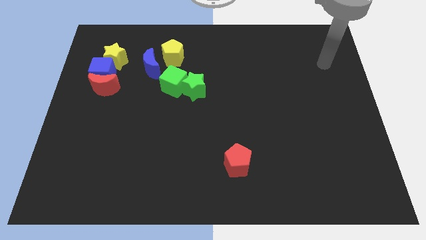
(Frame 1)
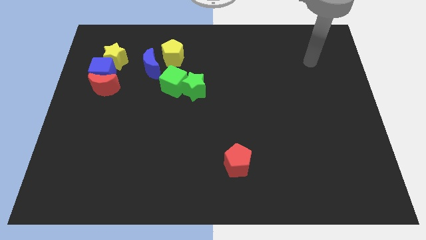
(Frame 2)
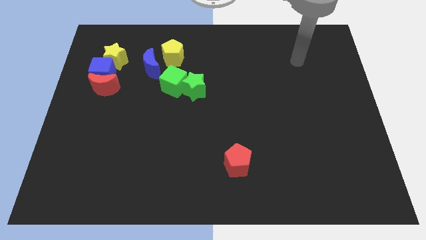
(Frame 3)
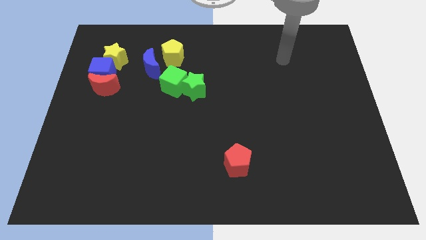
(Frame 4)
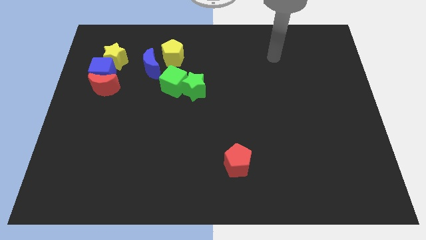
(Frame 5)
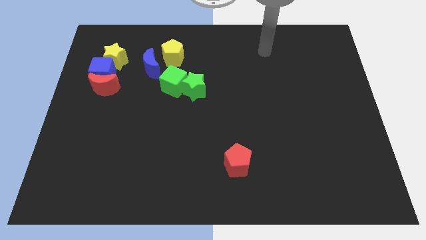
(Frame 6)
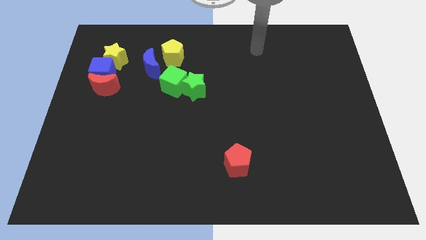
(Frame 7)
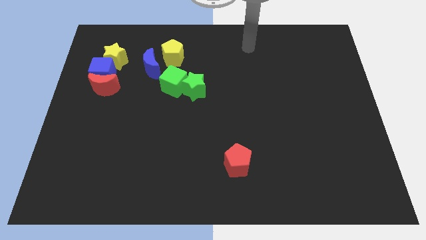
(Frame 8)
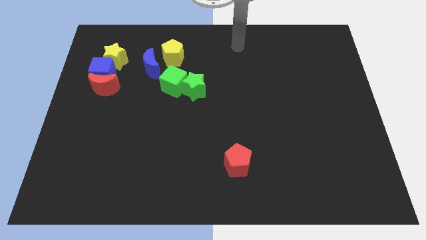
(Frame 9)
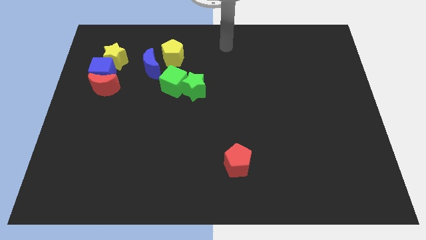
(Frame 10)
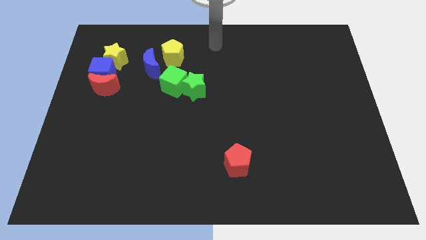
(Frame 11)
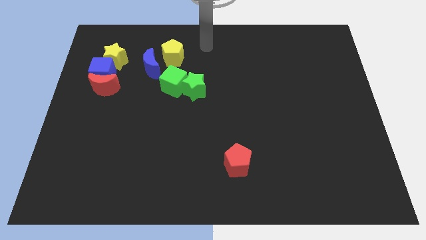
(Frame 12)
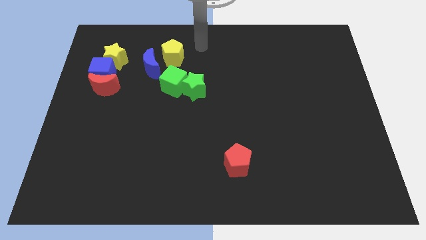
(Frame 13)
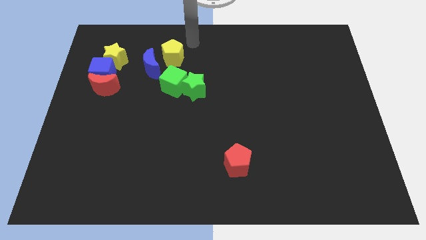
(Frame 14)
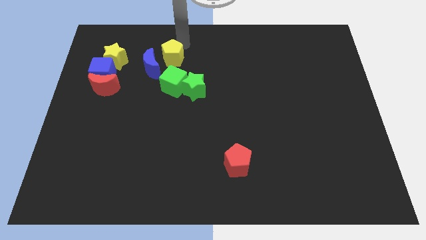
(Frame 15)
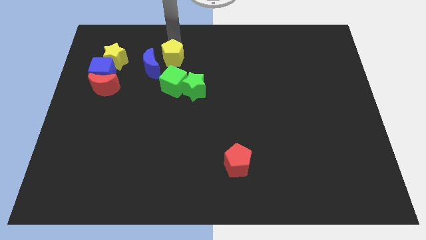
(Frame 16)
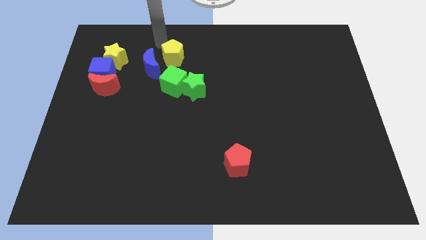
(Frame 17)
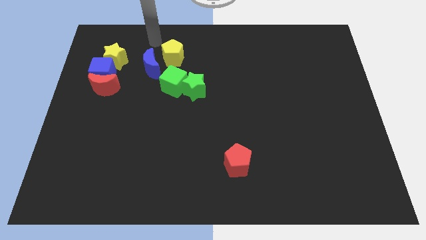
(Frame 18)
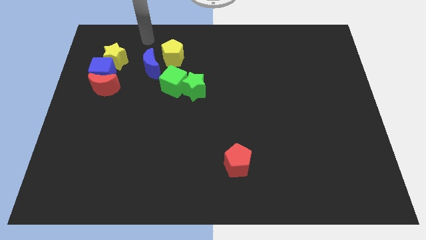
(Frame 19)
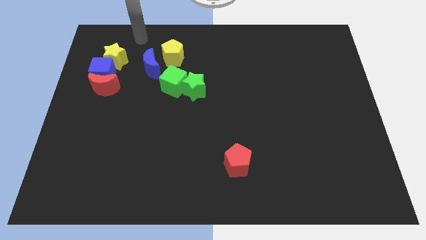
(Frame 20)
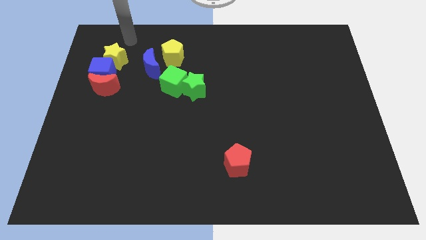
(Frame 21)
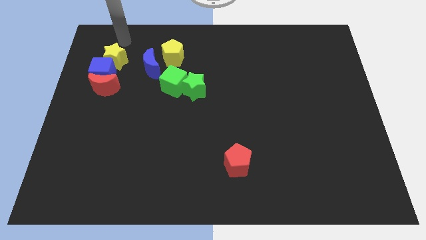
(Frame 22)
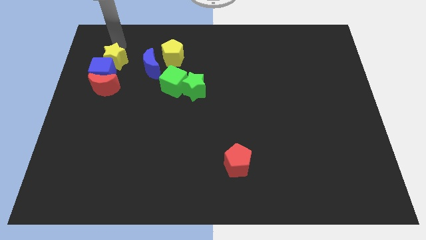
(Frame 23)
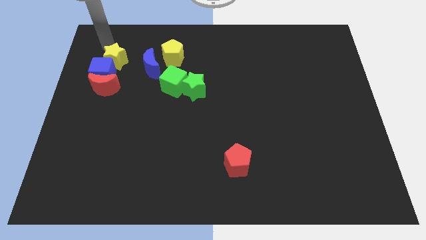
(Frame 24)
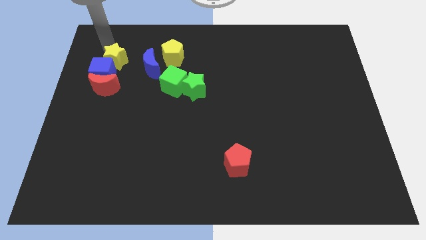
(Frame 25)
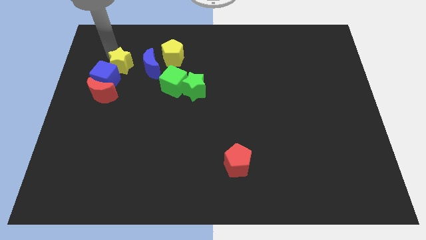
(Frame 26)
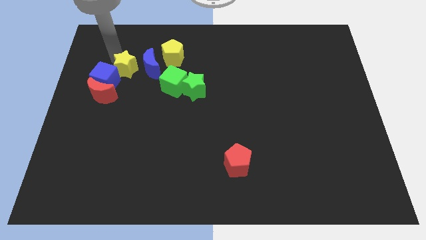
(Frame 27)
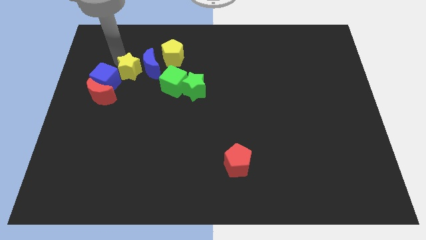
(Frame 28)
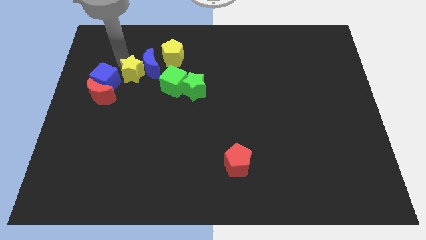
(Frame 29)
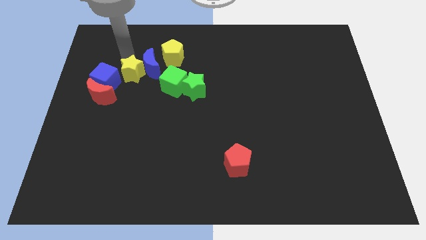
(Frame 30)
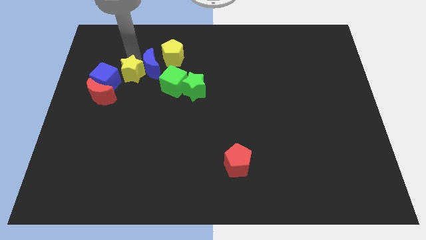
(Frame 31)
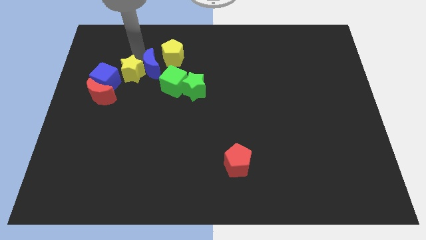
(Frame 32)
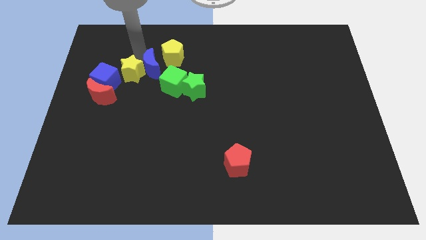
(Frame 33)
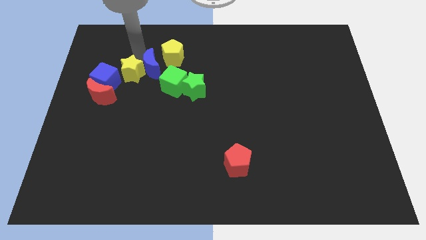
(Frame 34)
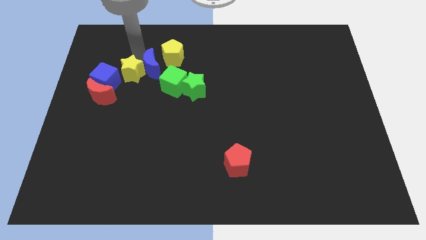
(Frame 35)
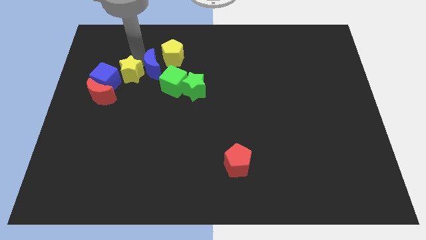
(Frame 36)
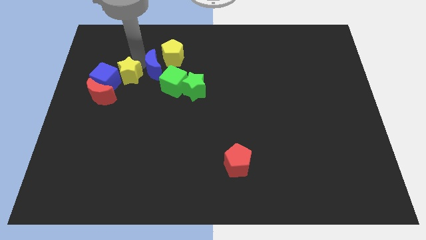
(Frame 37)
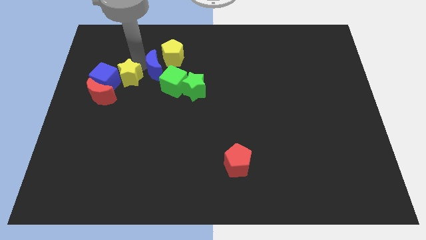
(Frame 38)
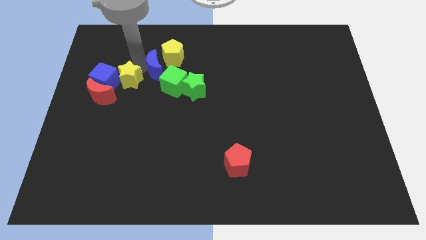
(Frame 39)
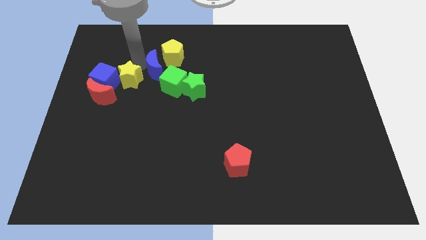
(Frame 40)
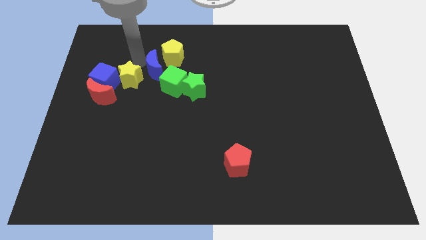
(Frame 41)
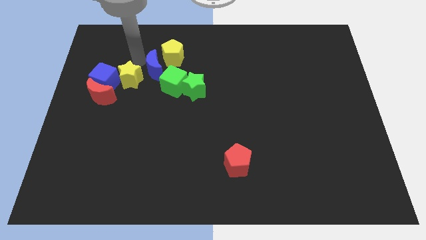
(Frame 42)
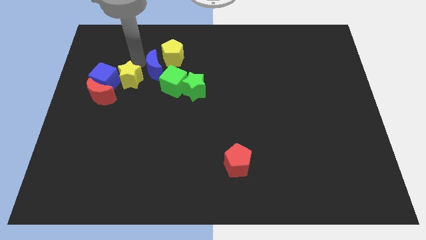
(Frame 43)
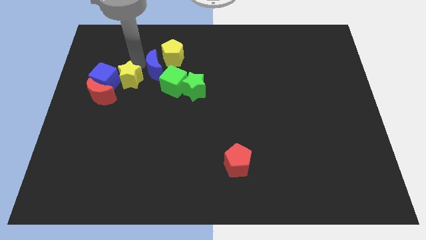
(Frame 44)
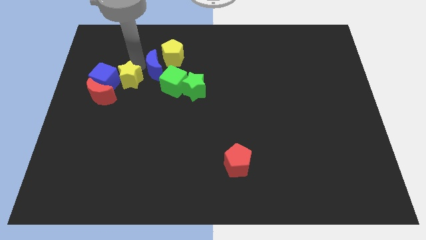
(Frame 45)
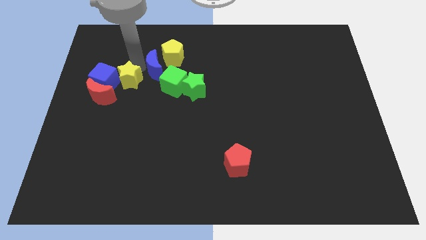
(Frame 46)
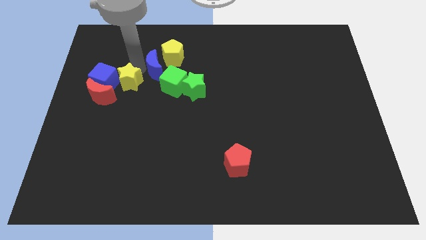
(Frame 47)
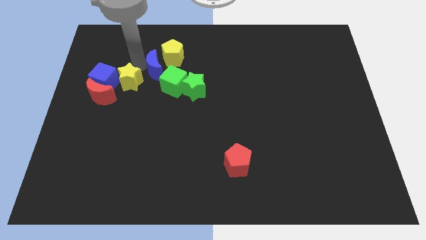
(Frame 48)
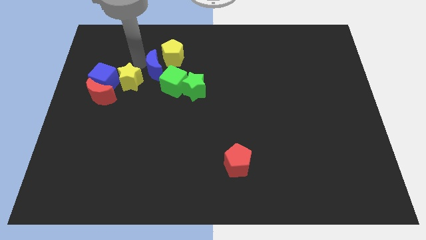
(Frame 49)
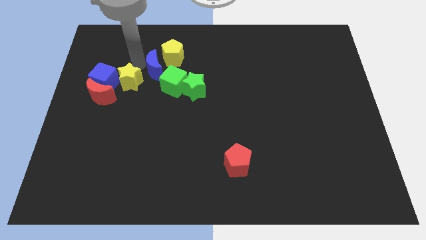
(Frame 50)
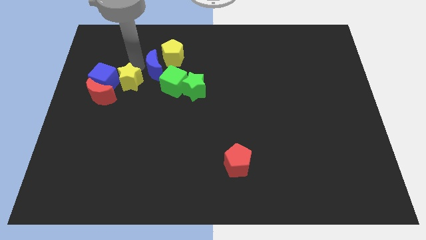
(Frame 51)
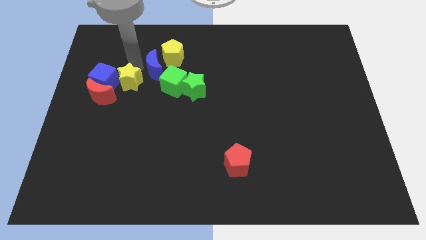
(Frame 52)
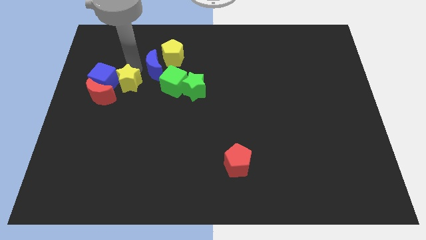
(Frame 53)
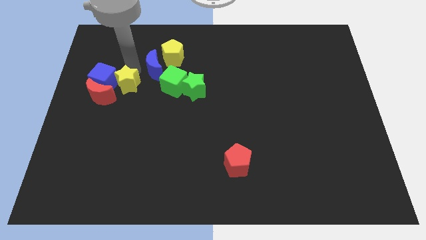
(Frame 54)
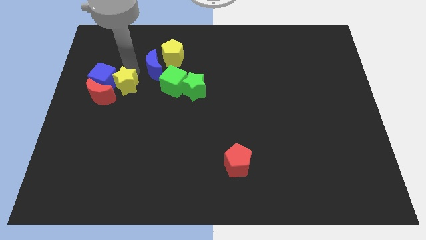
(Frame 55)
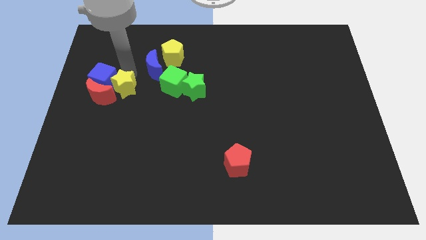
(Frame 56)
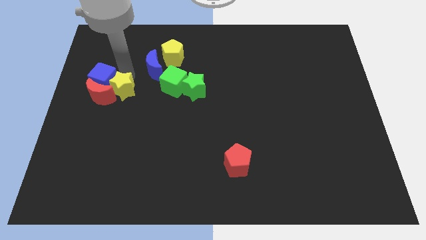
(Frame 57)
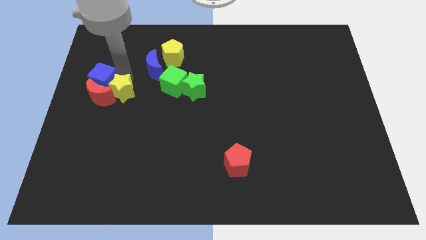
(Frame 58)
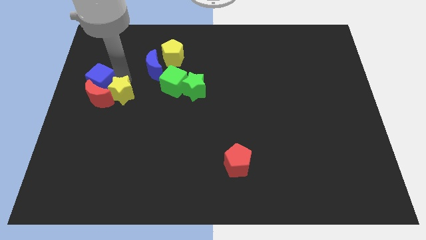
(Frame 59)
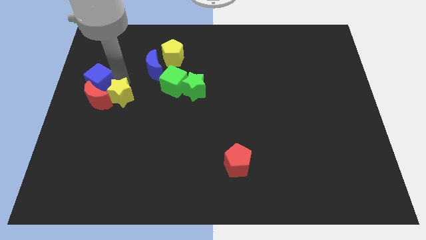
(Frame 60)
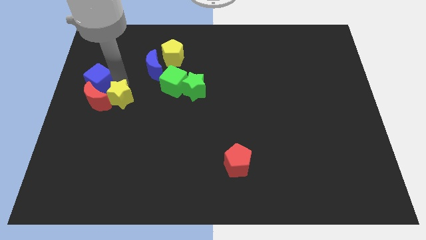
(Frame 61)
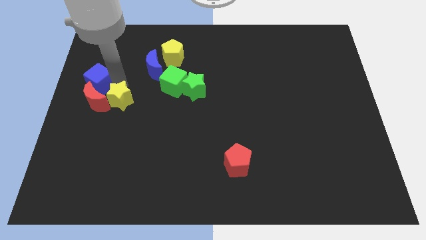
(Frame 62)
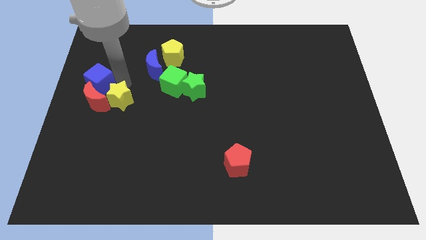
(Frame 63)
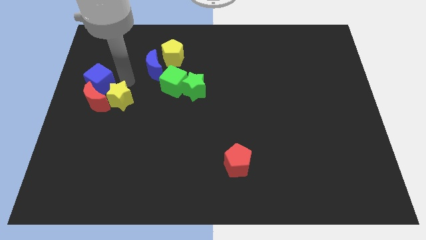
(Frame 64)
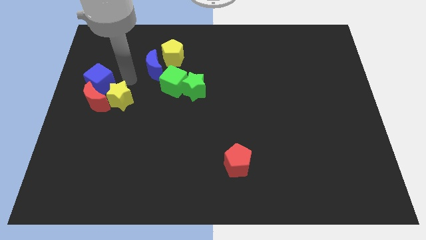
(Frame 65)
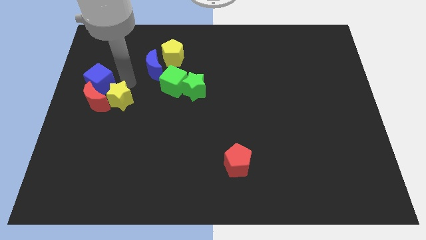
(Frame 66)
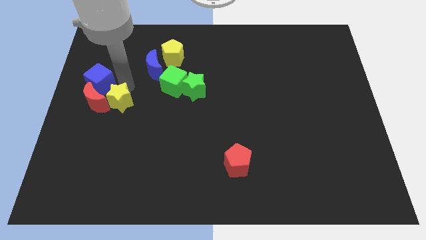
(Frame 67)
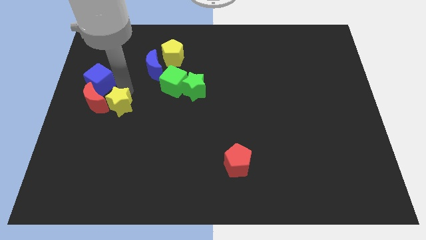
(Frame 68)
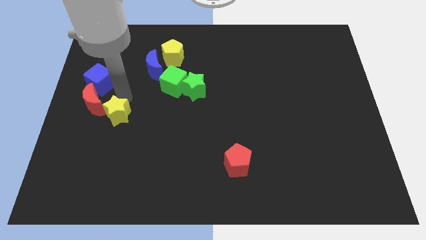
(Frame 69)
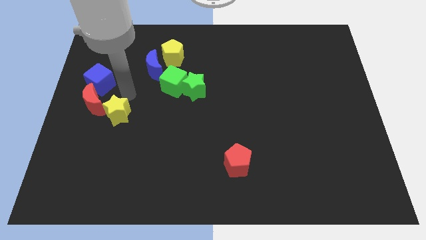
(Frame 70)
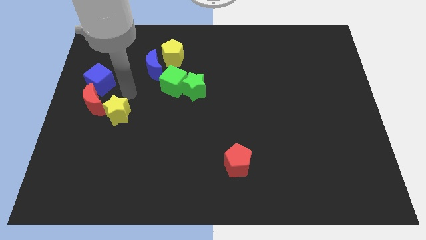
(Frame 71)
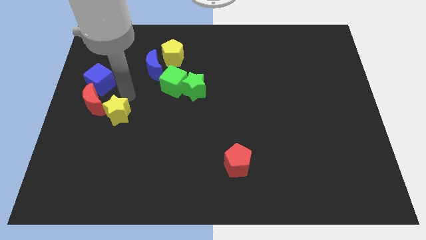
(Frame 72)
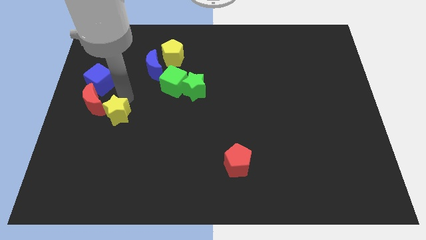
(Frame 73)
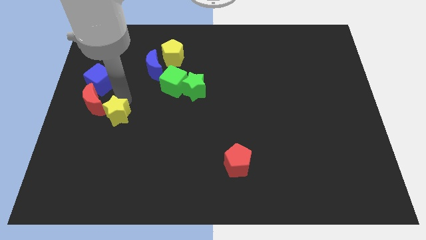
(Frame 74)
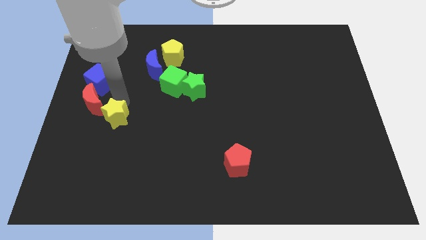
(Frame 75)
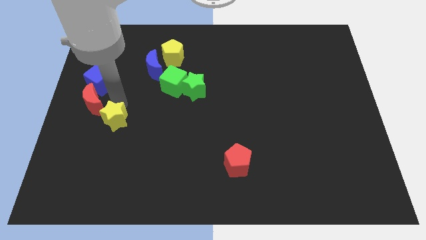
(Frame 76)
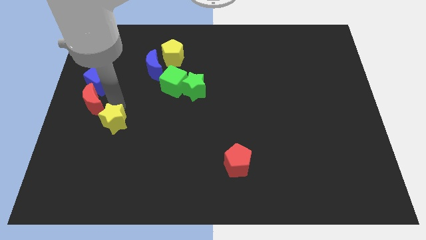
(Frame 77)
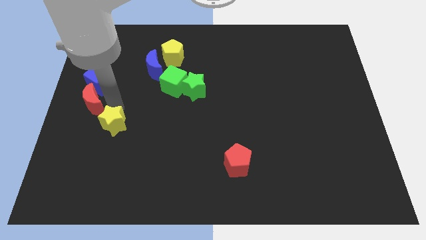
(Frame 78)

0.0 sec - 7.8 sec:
push the yellow star downwards

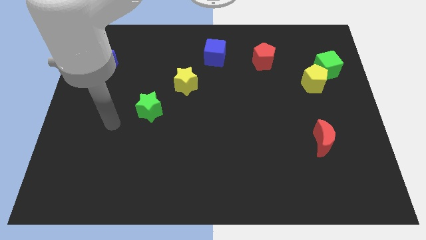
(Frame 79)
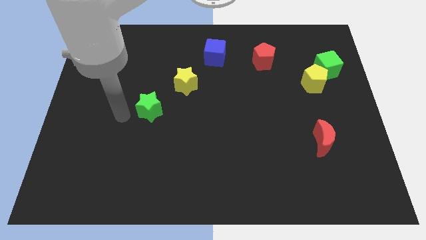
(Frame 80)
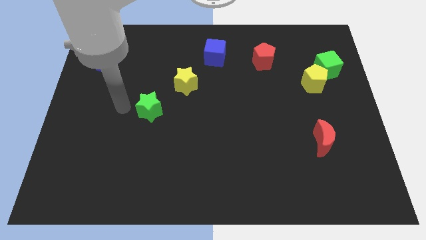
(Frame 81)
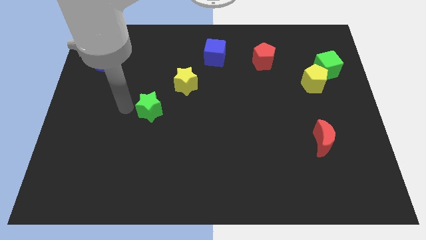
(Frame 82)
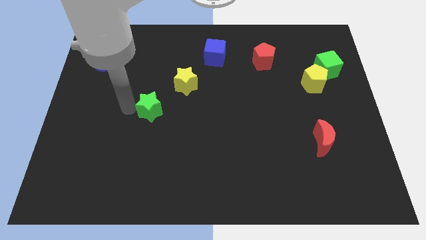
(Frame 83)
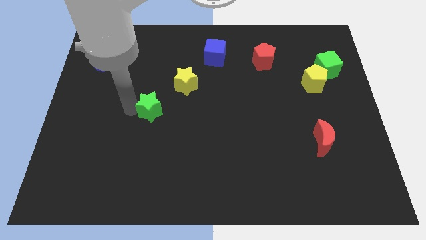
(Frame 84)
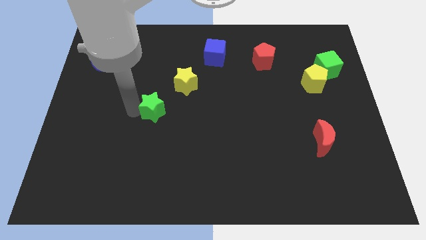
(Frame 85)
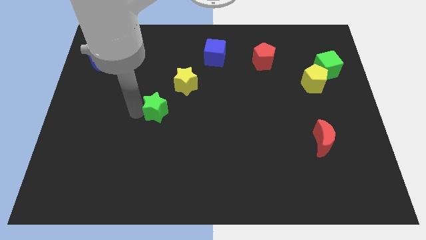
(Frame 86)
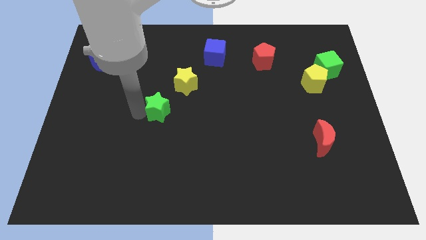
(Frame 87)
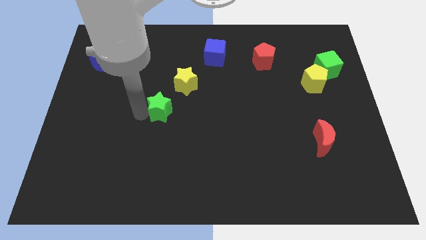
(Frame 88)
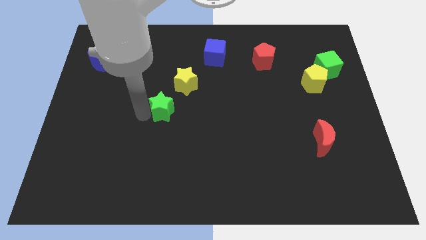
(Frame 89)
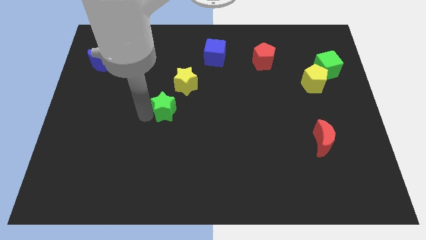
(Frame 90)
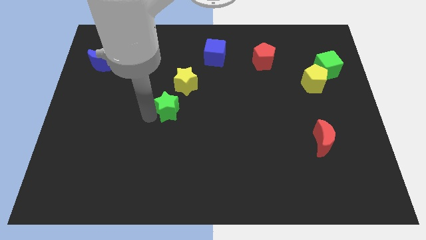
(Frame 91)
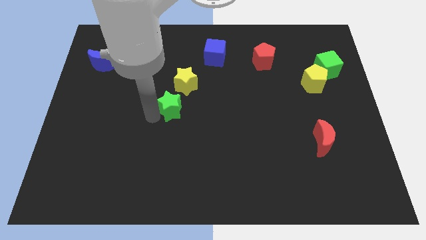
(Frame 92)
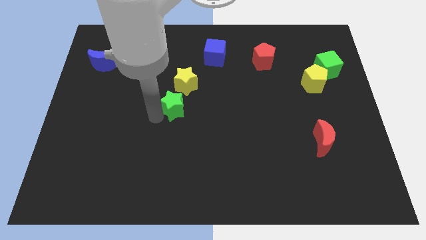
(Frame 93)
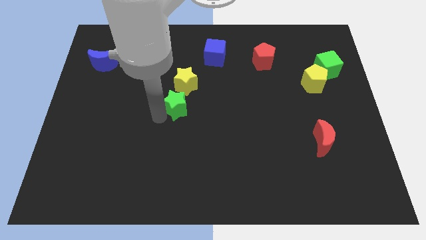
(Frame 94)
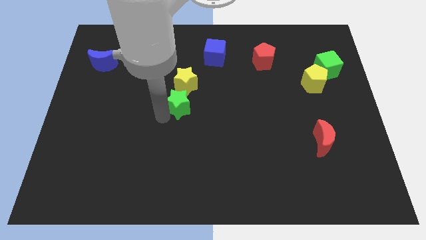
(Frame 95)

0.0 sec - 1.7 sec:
slightly push the green star to the right
